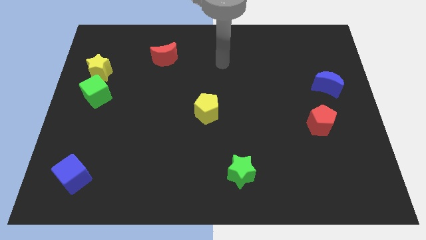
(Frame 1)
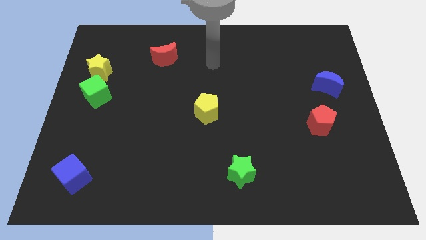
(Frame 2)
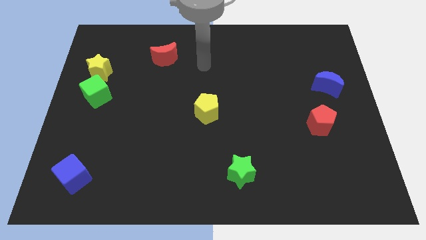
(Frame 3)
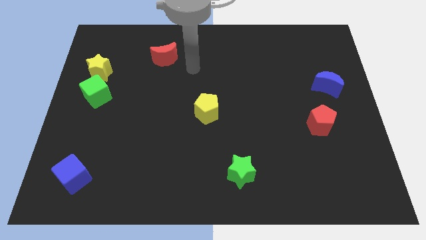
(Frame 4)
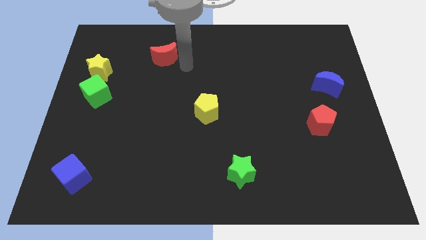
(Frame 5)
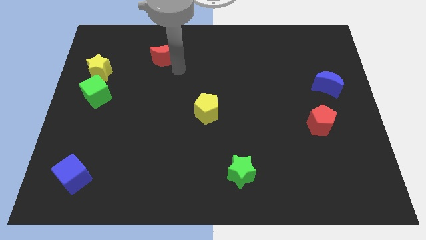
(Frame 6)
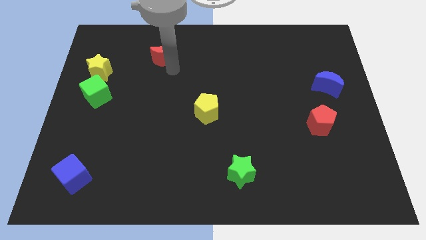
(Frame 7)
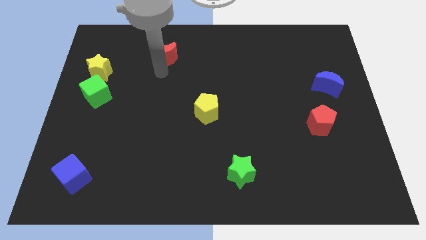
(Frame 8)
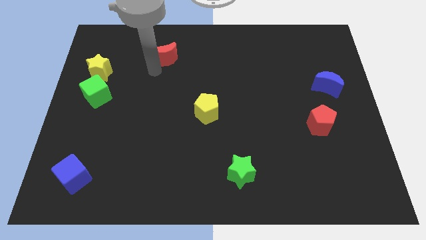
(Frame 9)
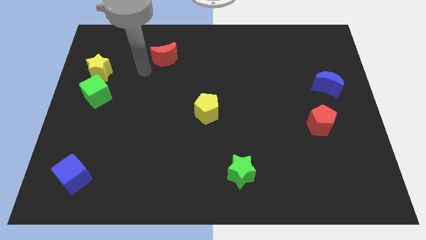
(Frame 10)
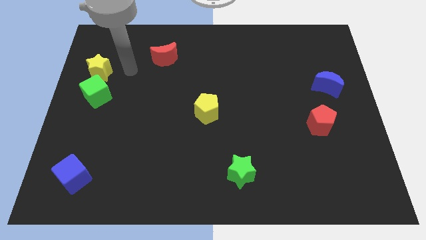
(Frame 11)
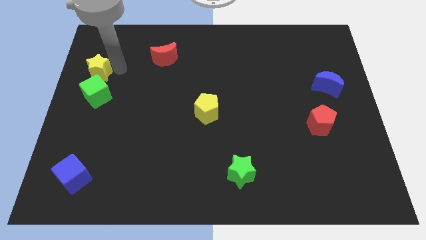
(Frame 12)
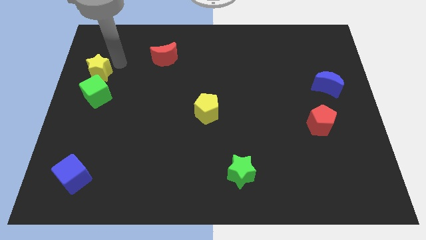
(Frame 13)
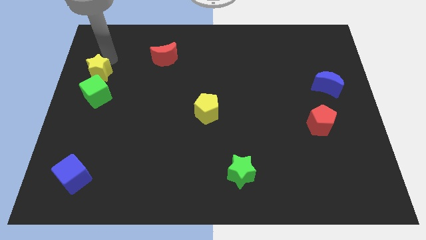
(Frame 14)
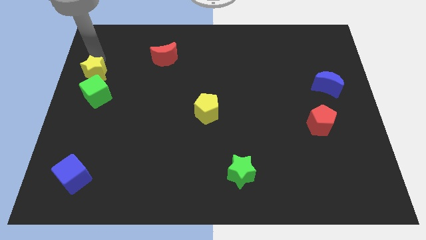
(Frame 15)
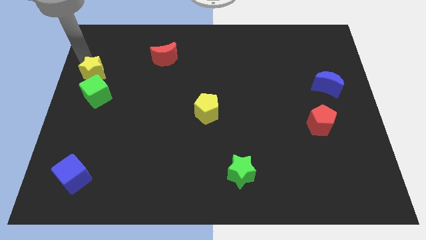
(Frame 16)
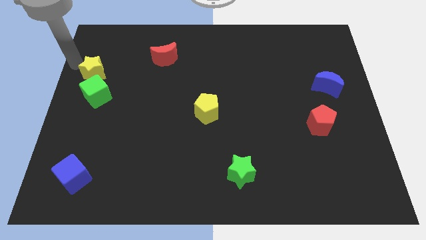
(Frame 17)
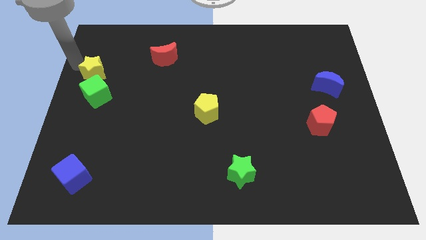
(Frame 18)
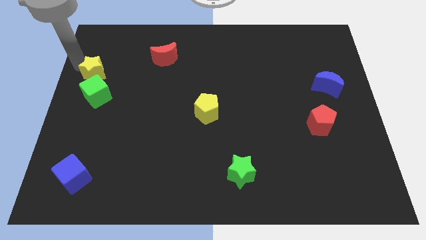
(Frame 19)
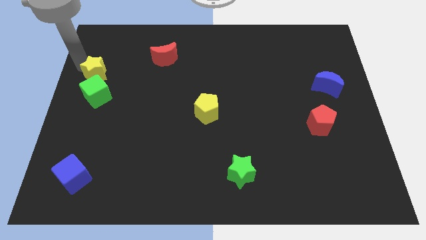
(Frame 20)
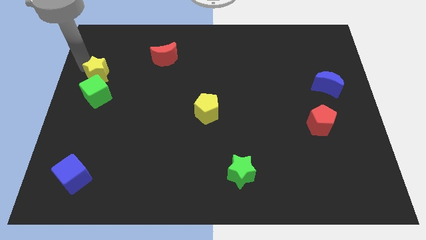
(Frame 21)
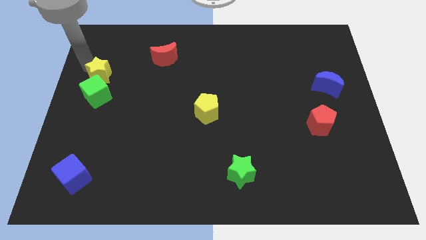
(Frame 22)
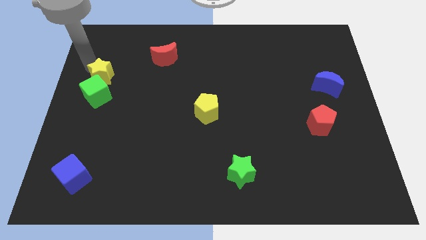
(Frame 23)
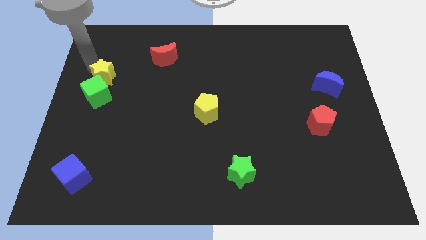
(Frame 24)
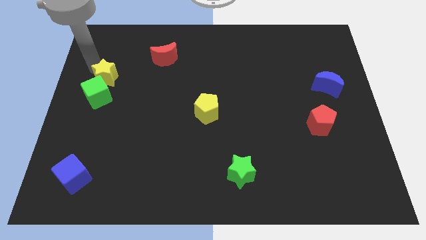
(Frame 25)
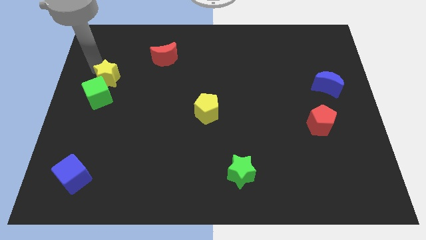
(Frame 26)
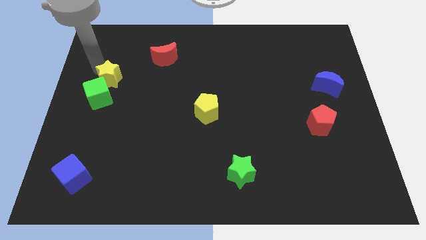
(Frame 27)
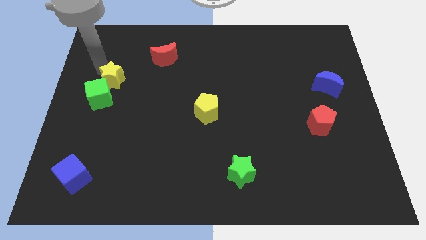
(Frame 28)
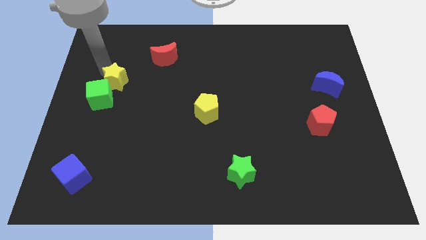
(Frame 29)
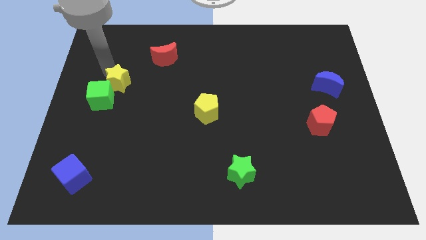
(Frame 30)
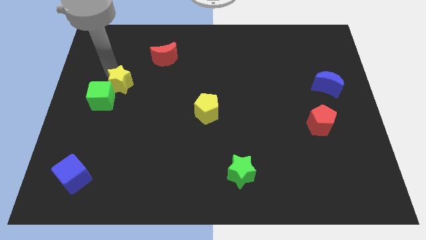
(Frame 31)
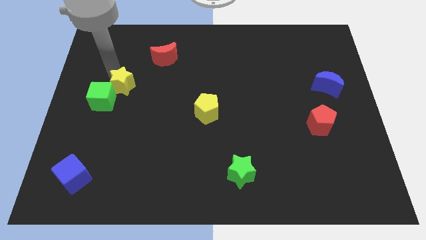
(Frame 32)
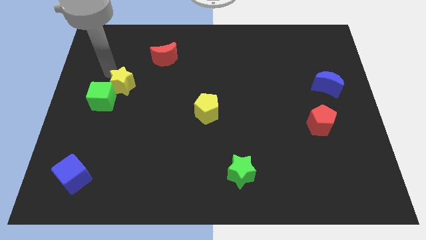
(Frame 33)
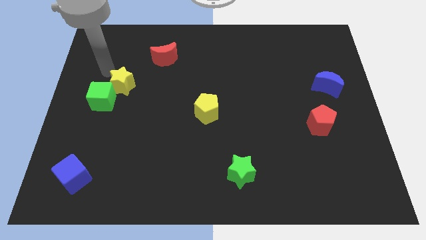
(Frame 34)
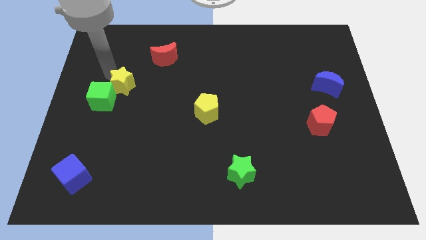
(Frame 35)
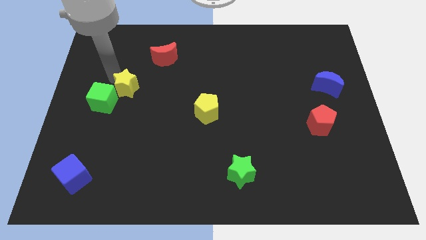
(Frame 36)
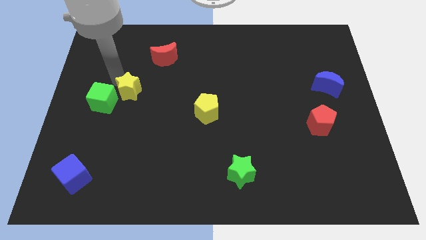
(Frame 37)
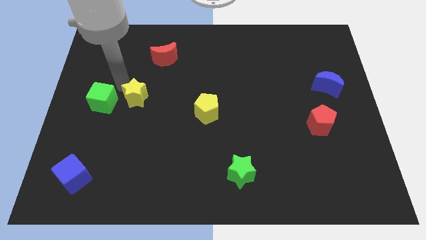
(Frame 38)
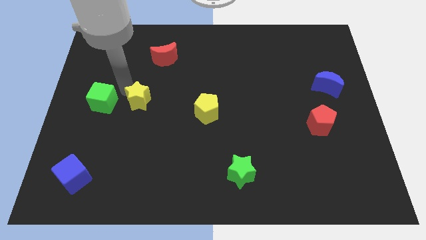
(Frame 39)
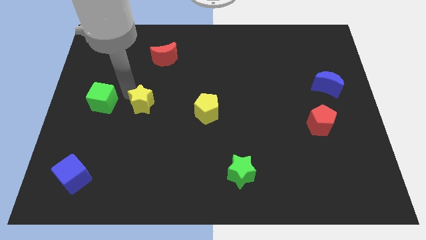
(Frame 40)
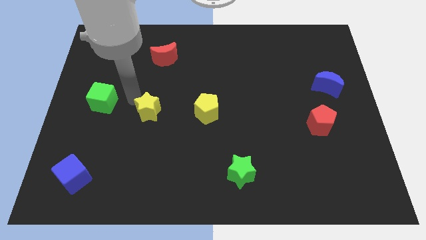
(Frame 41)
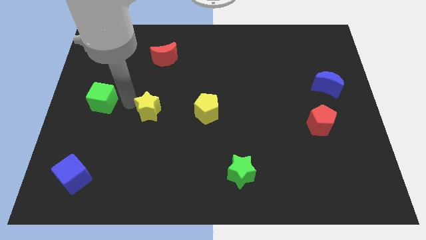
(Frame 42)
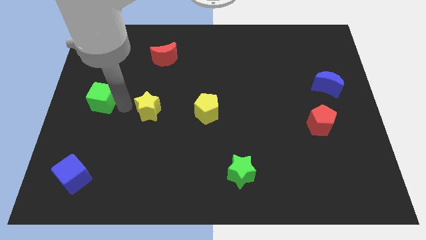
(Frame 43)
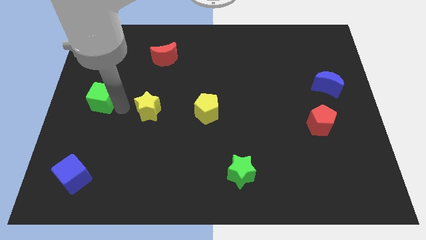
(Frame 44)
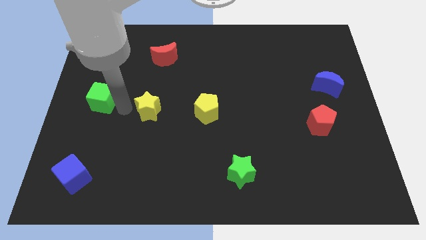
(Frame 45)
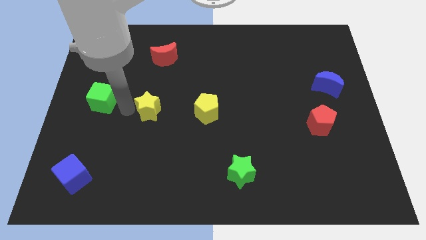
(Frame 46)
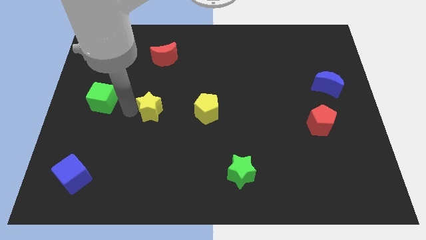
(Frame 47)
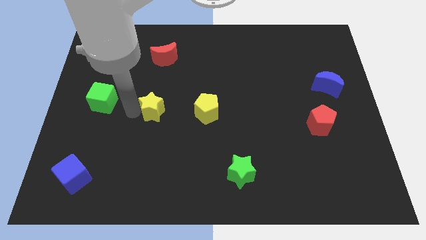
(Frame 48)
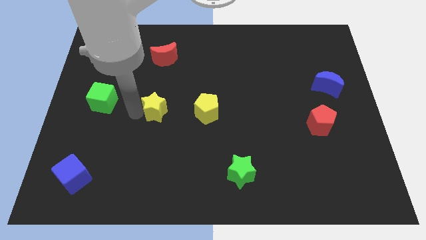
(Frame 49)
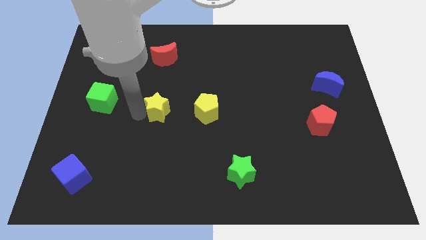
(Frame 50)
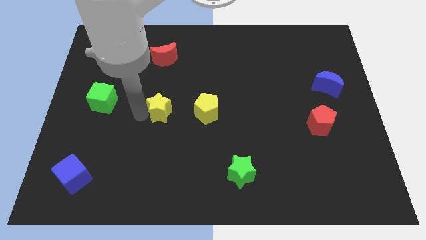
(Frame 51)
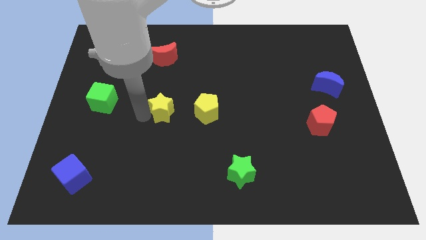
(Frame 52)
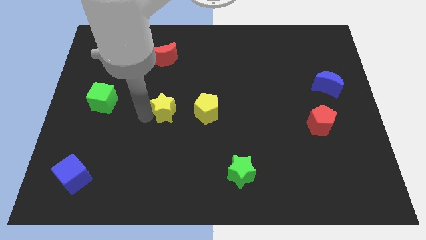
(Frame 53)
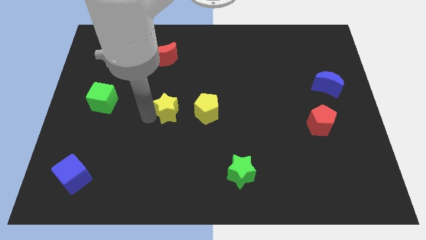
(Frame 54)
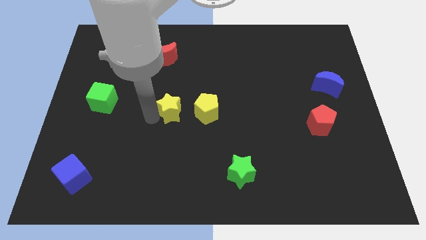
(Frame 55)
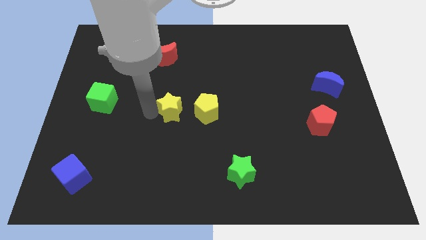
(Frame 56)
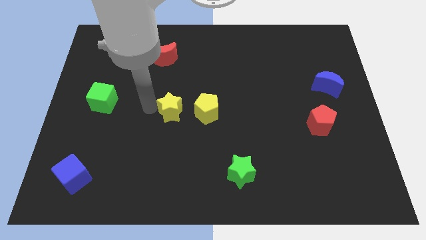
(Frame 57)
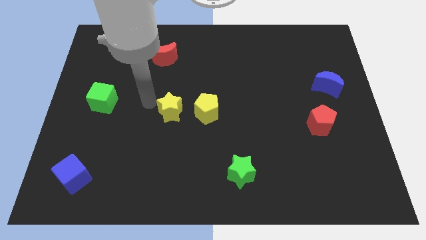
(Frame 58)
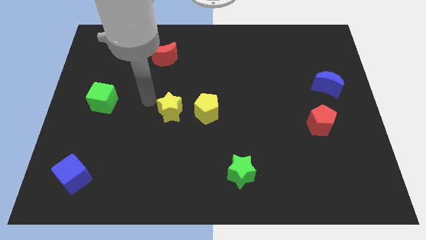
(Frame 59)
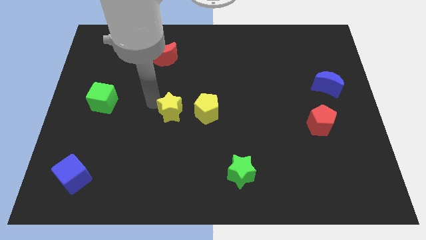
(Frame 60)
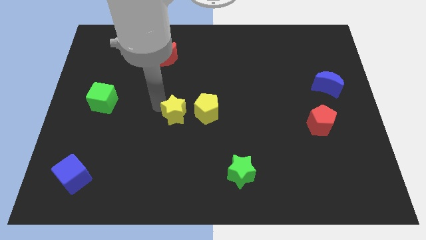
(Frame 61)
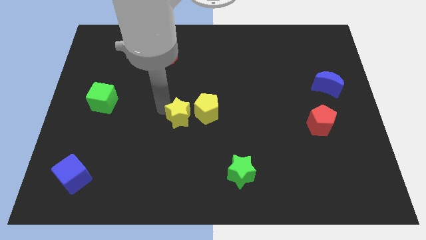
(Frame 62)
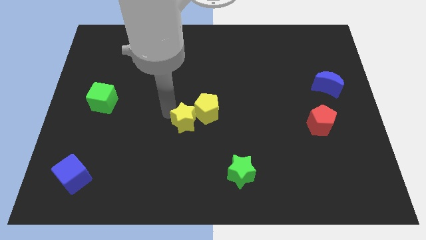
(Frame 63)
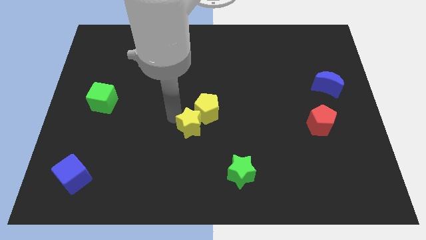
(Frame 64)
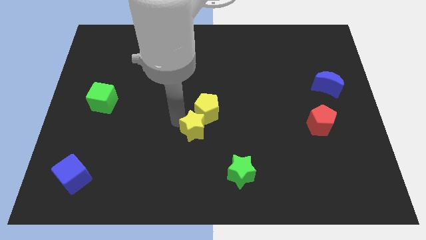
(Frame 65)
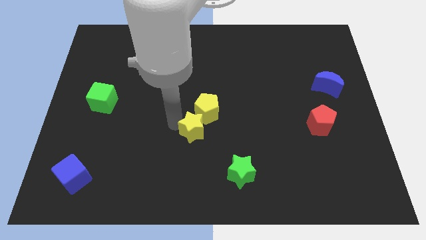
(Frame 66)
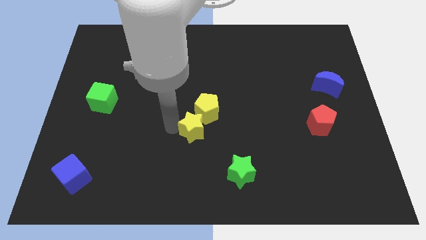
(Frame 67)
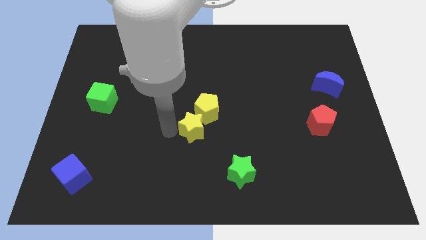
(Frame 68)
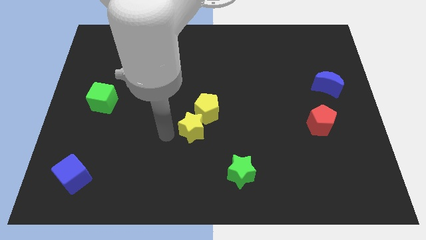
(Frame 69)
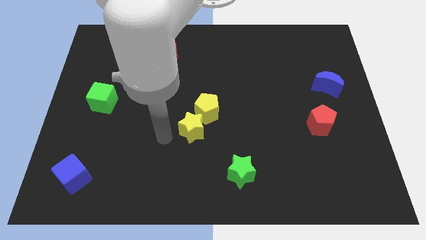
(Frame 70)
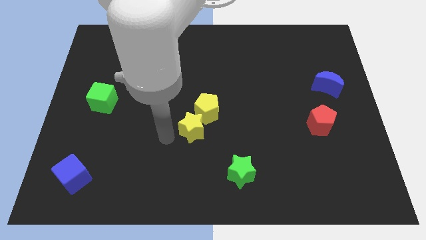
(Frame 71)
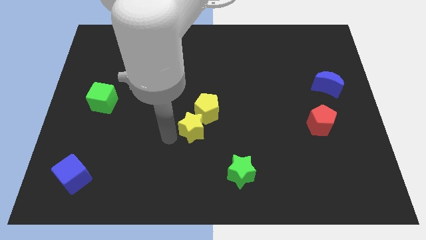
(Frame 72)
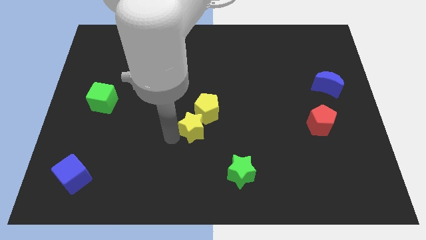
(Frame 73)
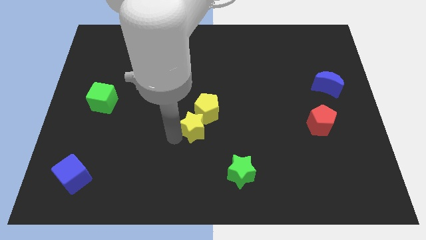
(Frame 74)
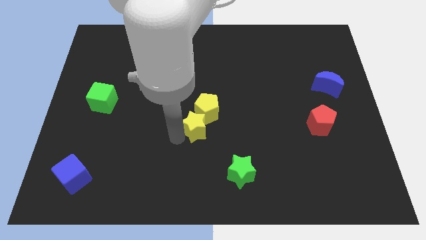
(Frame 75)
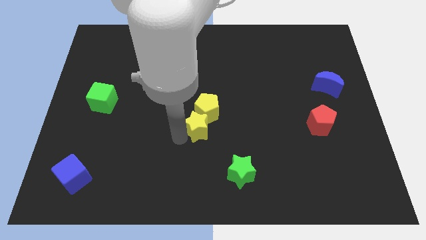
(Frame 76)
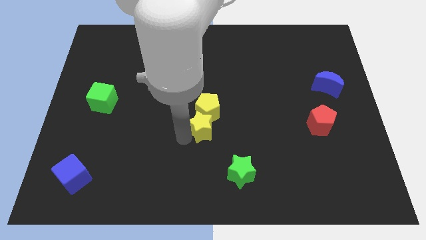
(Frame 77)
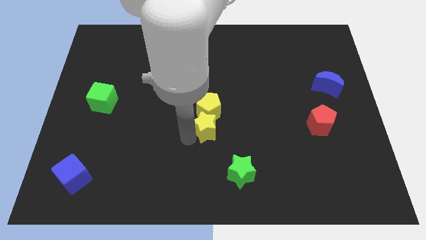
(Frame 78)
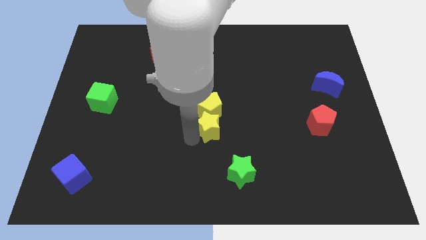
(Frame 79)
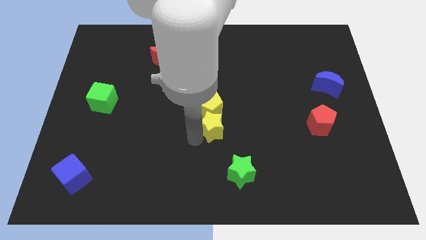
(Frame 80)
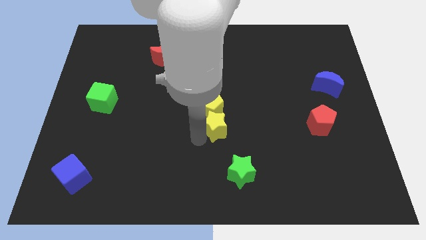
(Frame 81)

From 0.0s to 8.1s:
move the yellow star to the top side of the green star
